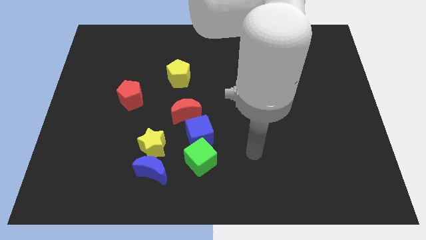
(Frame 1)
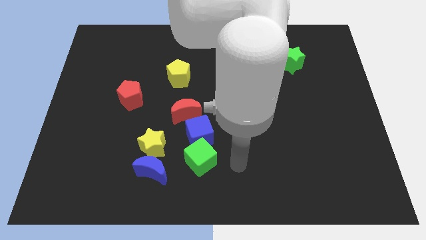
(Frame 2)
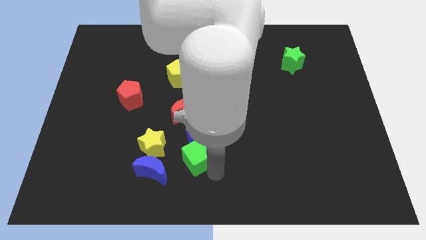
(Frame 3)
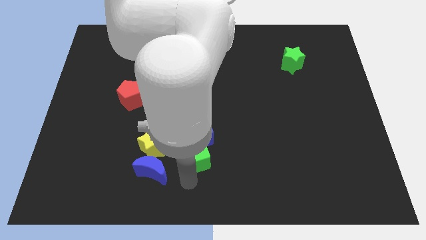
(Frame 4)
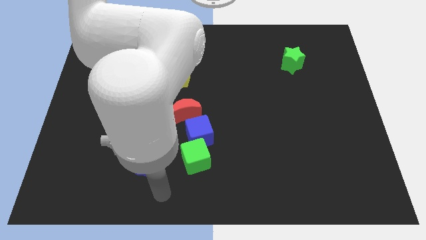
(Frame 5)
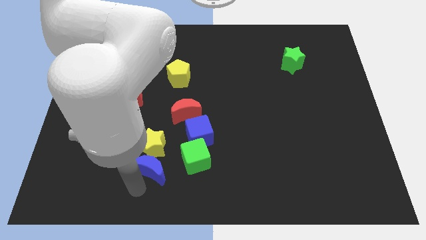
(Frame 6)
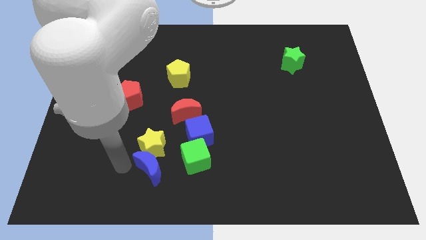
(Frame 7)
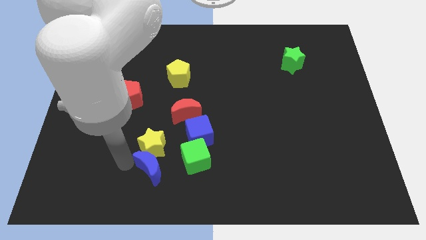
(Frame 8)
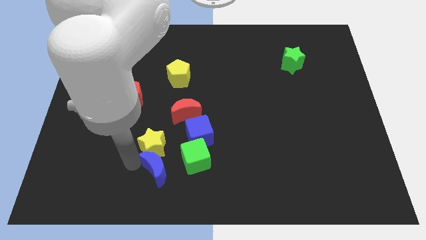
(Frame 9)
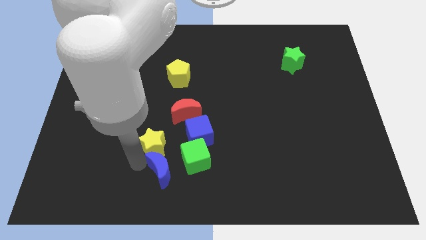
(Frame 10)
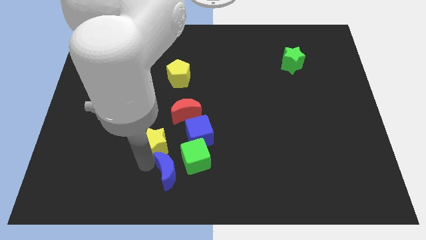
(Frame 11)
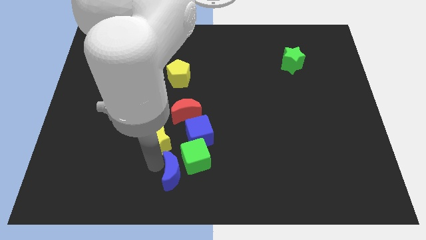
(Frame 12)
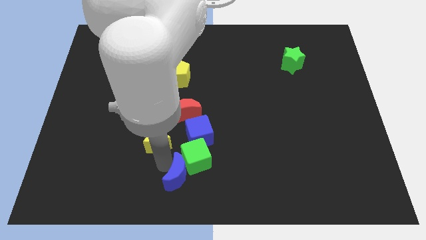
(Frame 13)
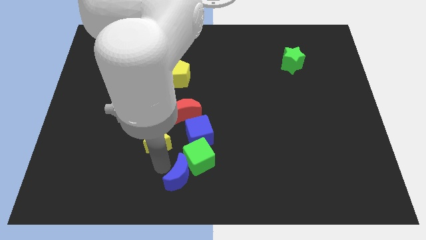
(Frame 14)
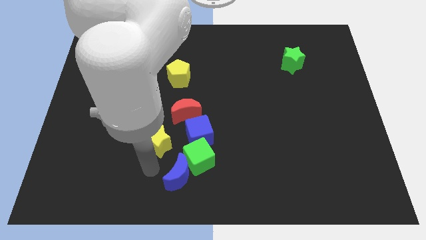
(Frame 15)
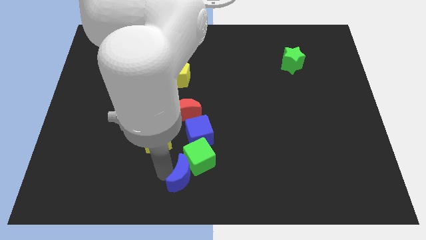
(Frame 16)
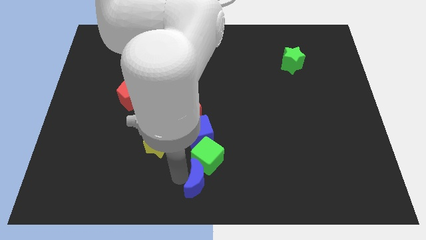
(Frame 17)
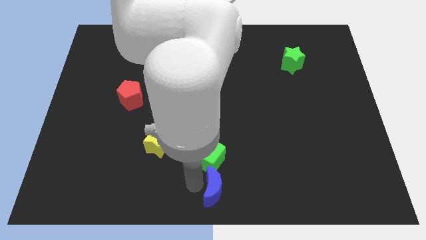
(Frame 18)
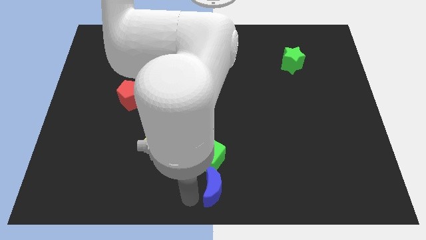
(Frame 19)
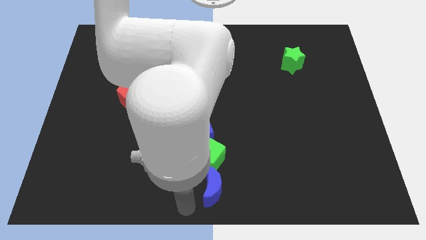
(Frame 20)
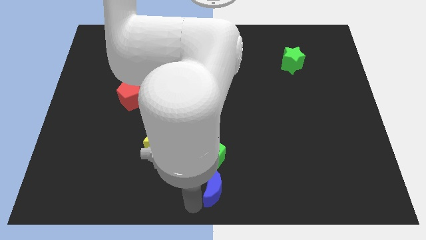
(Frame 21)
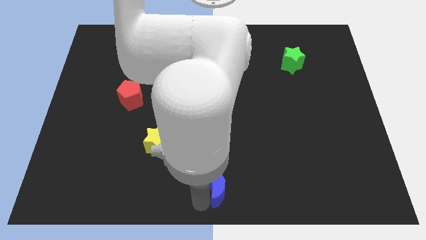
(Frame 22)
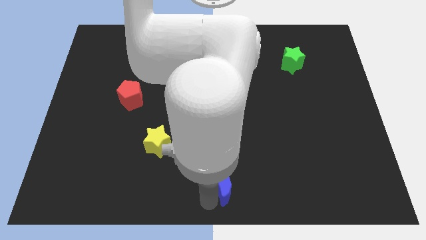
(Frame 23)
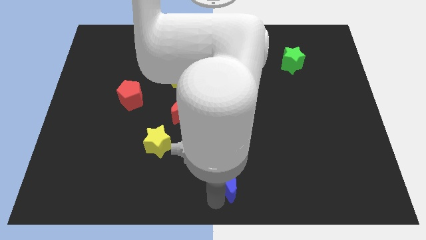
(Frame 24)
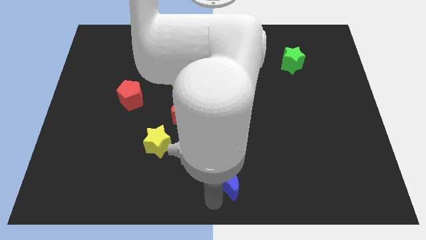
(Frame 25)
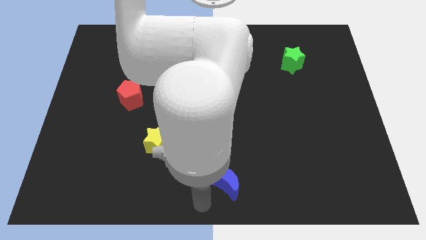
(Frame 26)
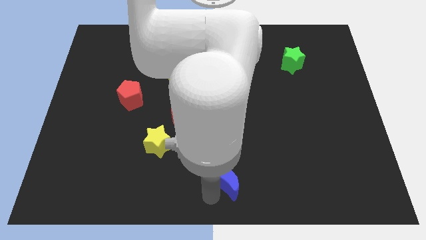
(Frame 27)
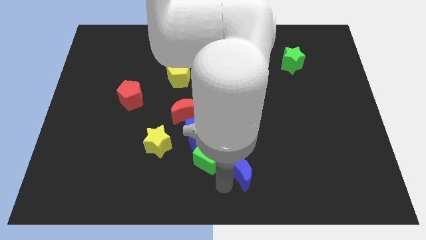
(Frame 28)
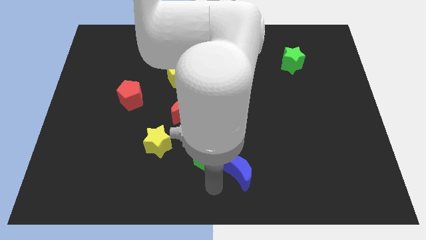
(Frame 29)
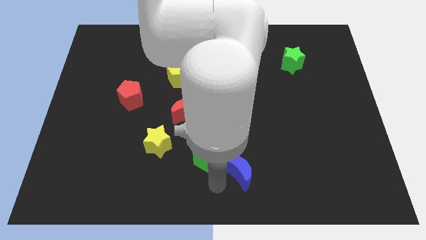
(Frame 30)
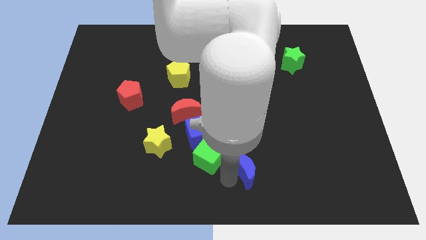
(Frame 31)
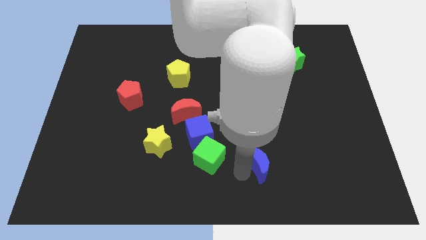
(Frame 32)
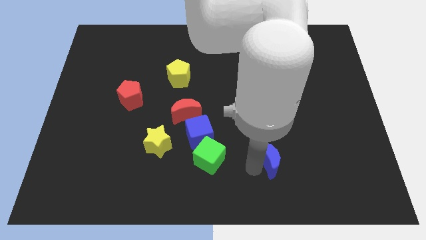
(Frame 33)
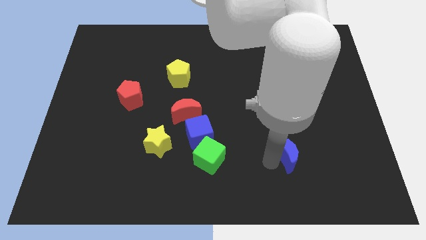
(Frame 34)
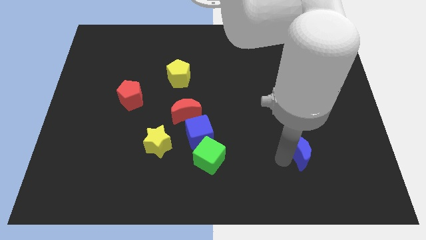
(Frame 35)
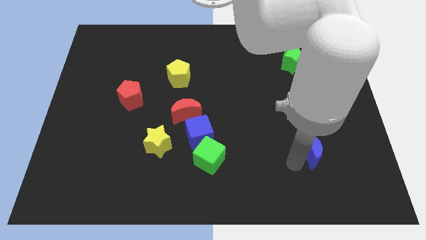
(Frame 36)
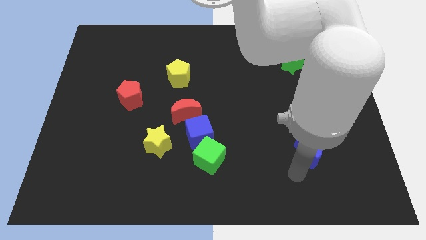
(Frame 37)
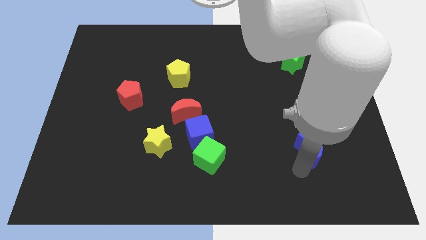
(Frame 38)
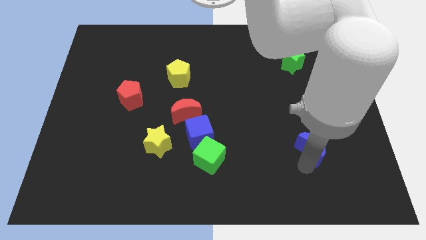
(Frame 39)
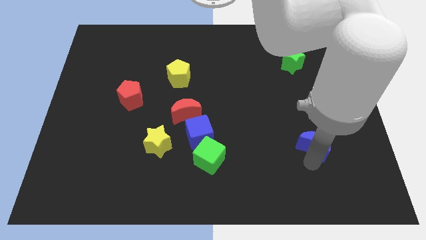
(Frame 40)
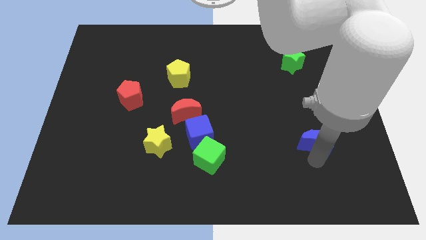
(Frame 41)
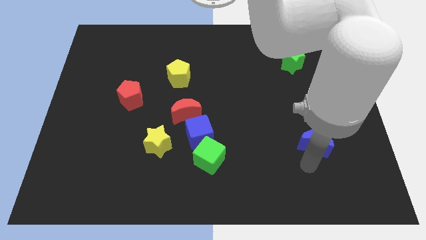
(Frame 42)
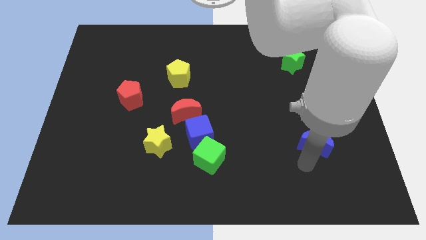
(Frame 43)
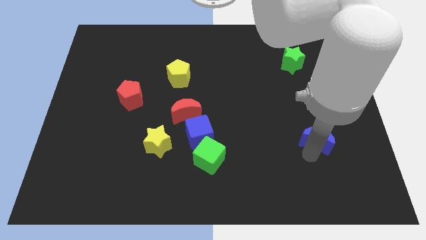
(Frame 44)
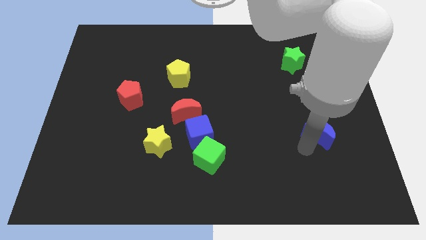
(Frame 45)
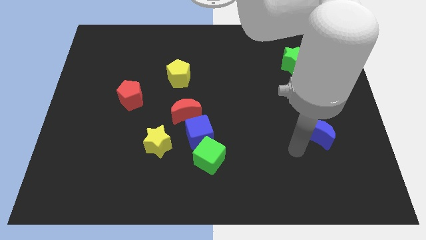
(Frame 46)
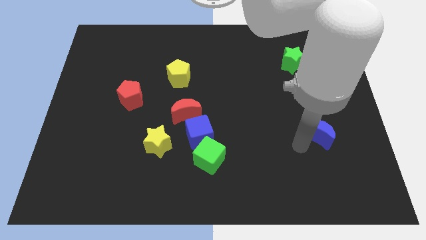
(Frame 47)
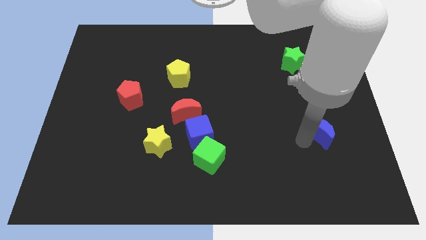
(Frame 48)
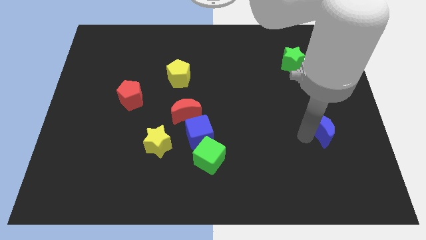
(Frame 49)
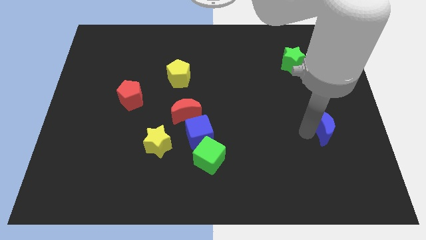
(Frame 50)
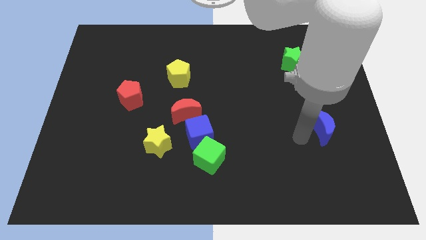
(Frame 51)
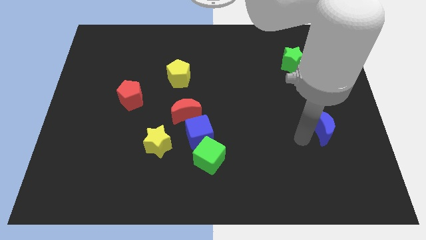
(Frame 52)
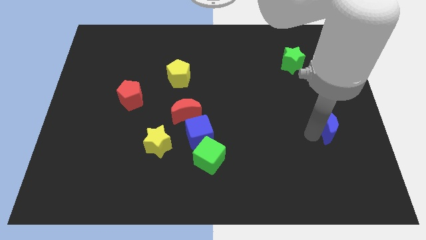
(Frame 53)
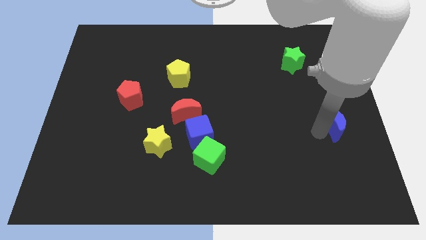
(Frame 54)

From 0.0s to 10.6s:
push the blue moon to the right side

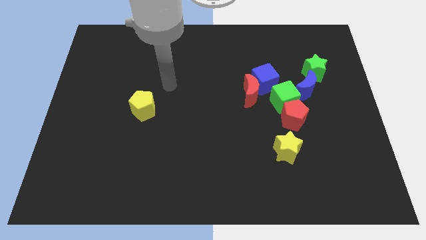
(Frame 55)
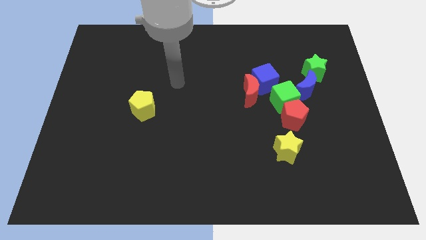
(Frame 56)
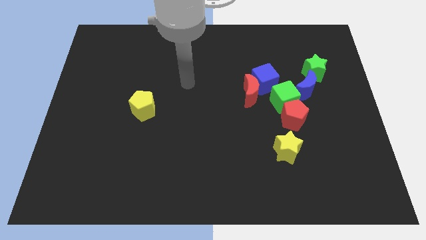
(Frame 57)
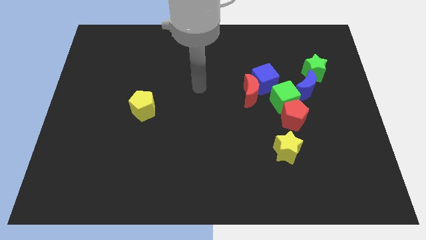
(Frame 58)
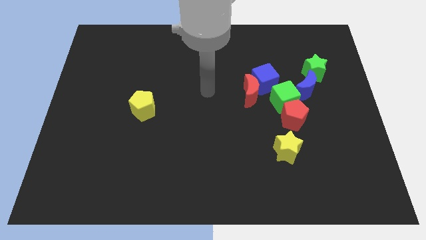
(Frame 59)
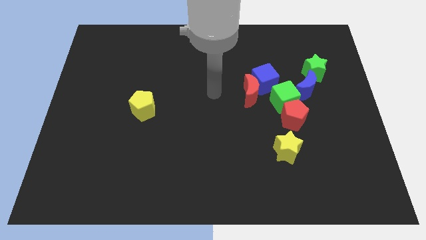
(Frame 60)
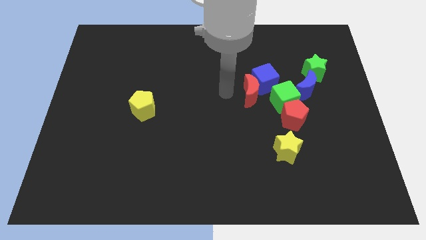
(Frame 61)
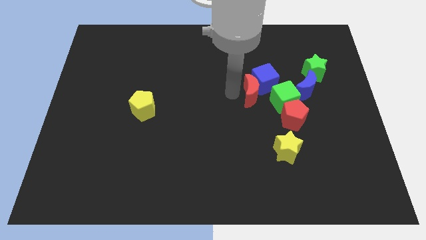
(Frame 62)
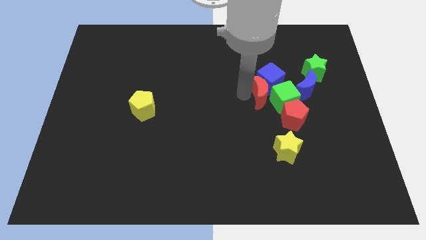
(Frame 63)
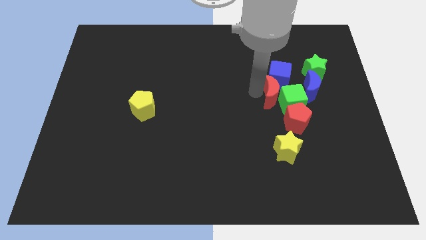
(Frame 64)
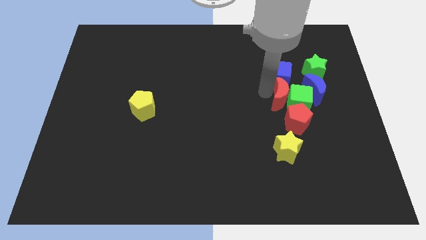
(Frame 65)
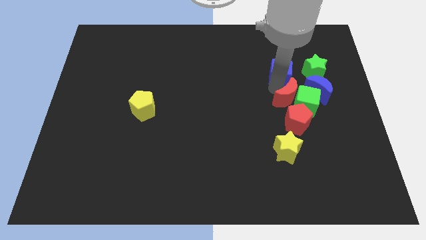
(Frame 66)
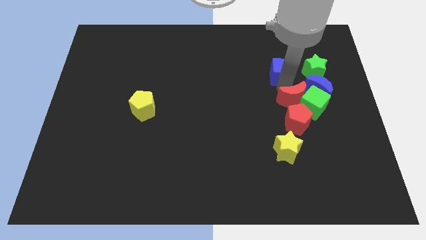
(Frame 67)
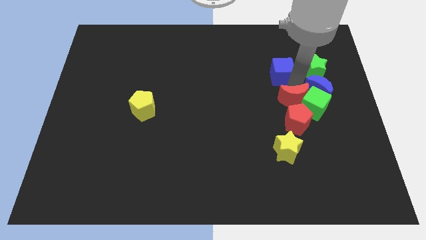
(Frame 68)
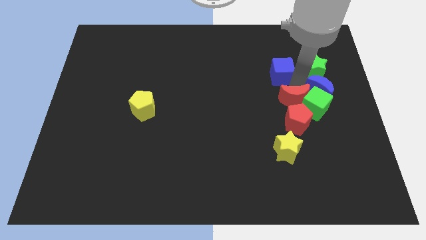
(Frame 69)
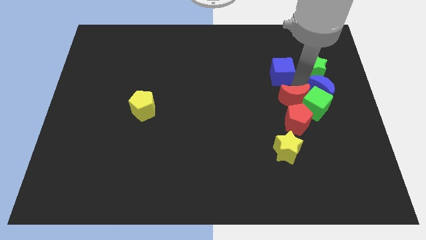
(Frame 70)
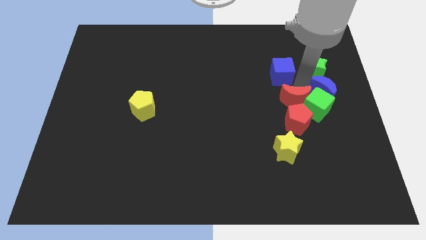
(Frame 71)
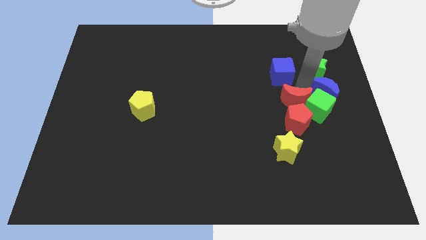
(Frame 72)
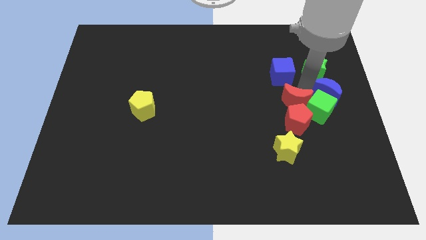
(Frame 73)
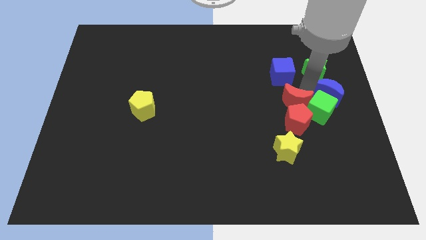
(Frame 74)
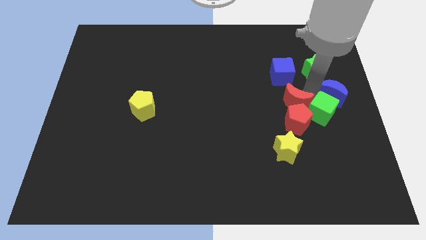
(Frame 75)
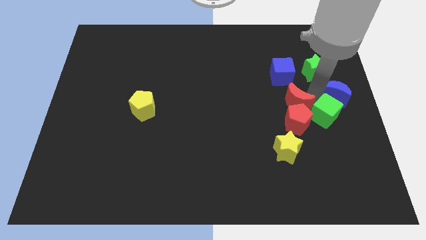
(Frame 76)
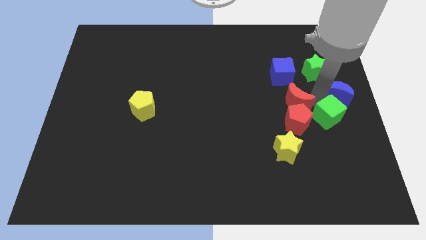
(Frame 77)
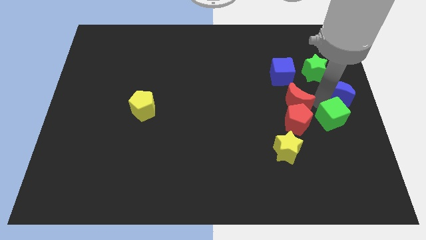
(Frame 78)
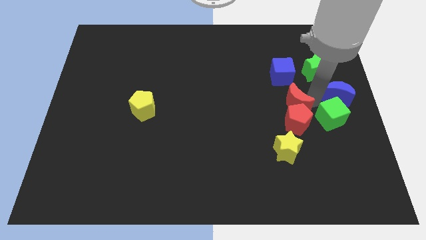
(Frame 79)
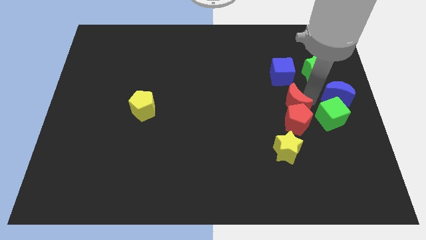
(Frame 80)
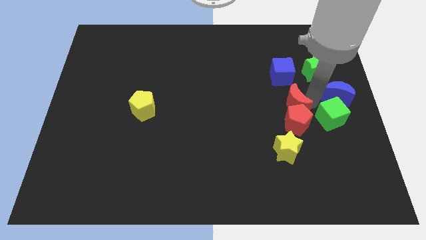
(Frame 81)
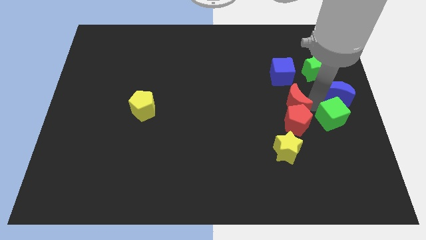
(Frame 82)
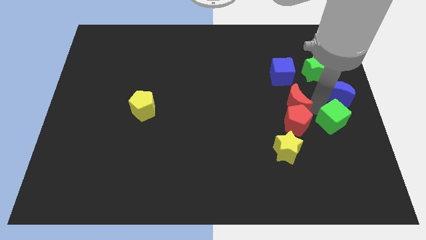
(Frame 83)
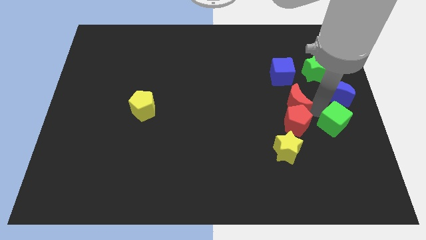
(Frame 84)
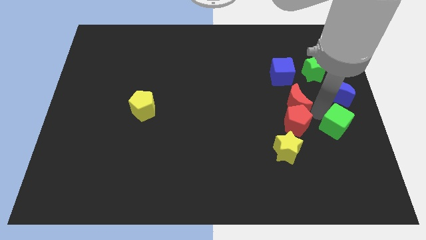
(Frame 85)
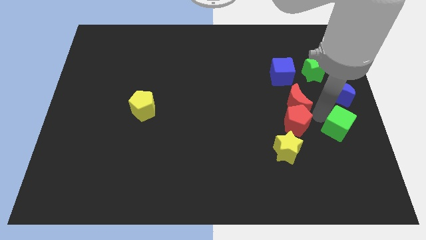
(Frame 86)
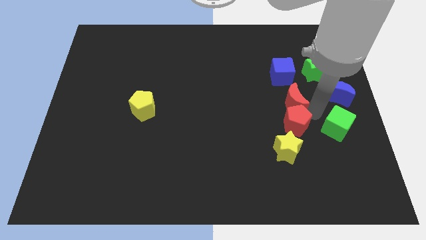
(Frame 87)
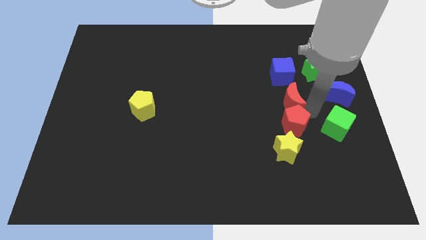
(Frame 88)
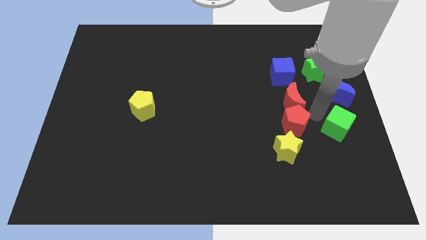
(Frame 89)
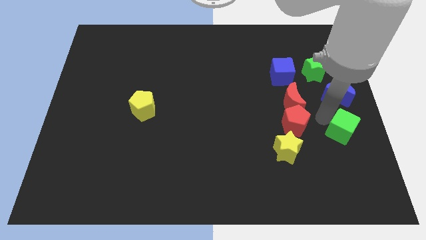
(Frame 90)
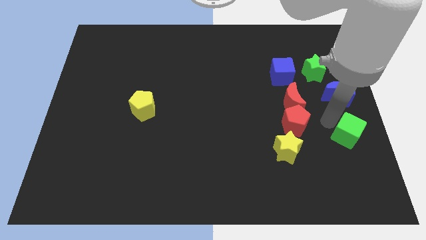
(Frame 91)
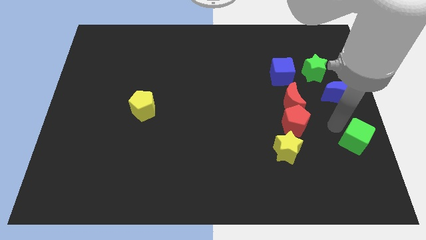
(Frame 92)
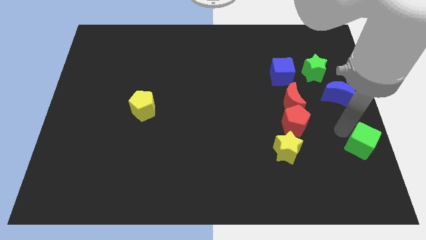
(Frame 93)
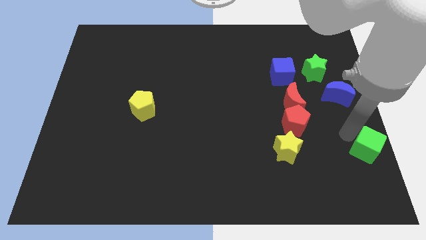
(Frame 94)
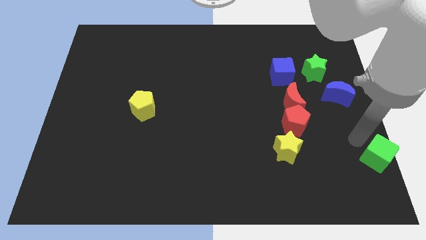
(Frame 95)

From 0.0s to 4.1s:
move the green cube to the lower right corner
